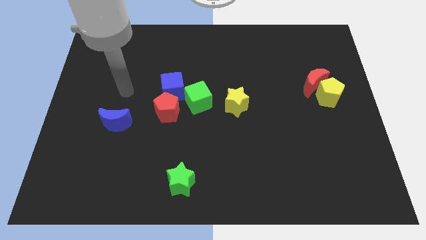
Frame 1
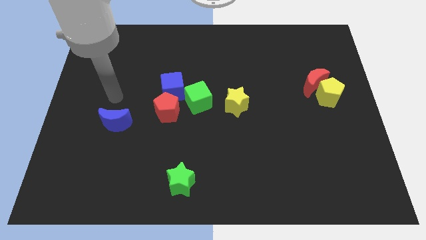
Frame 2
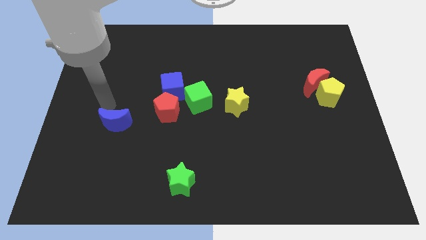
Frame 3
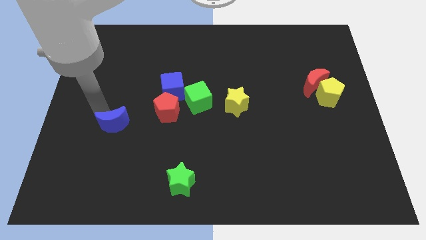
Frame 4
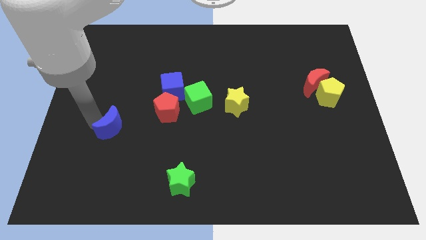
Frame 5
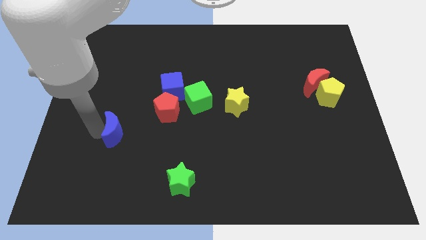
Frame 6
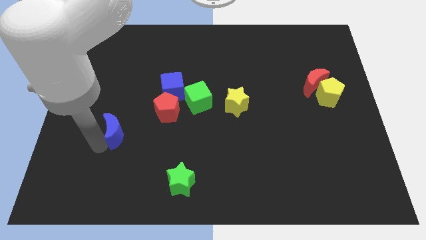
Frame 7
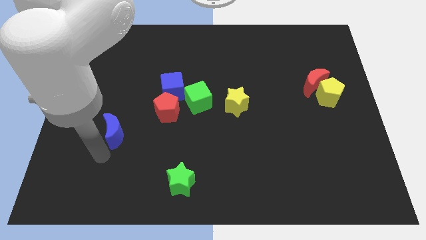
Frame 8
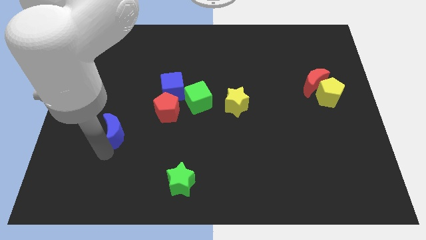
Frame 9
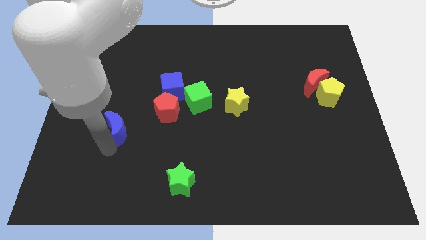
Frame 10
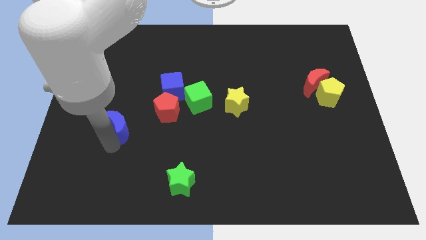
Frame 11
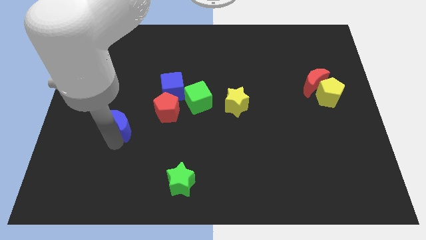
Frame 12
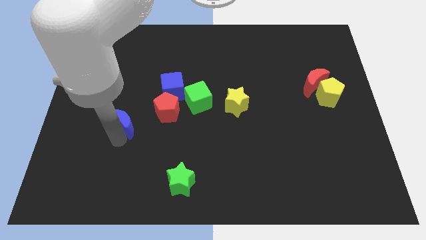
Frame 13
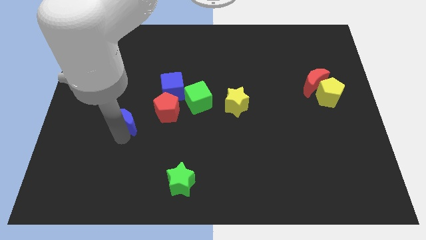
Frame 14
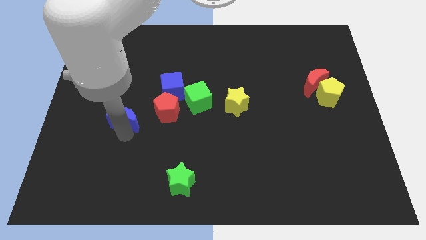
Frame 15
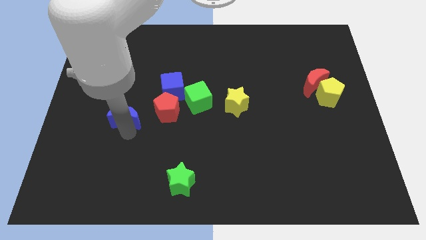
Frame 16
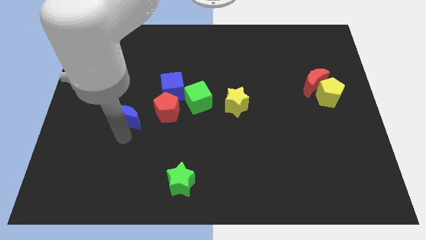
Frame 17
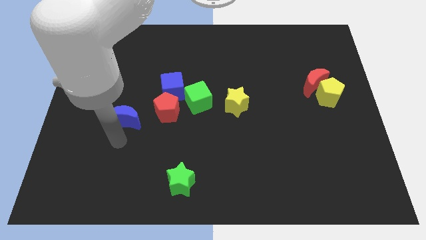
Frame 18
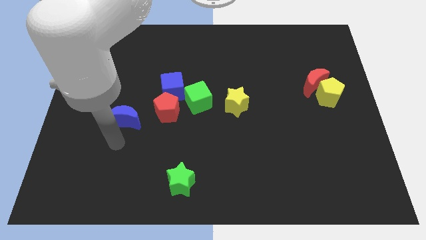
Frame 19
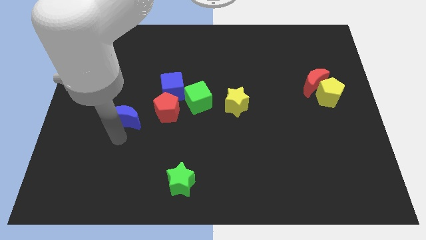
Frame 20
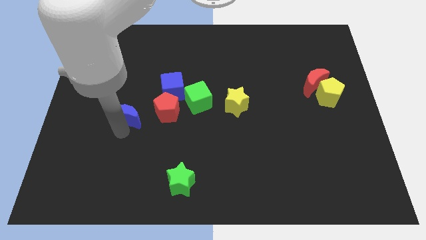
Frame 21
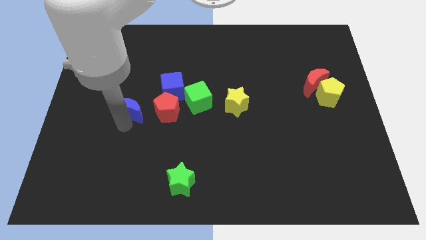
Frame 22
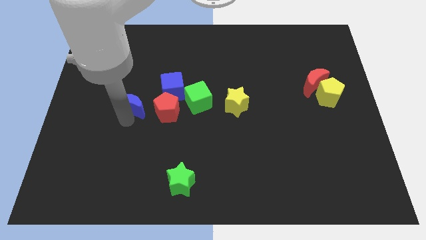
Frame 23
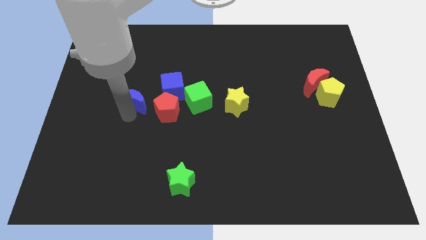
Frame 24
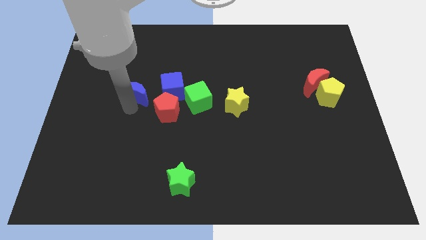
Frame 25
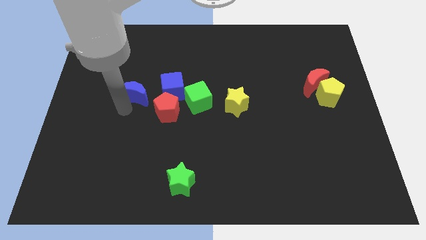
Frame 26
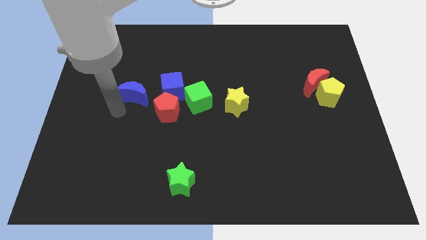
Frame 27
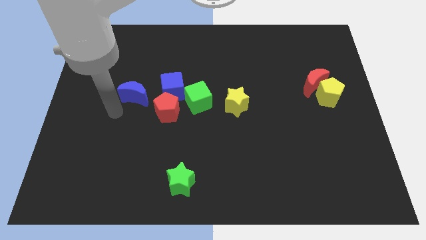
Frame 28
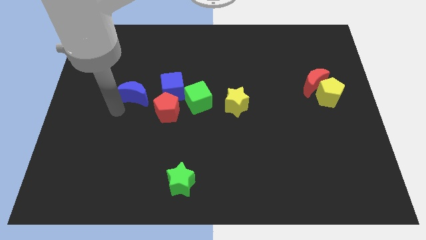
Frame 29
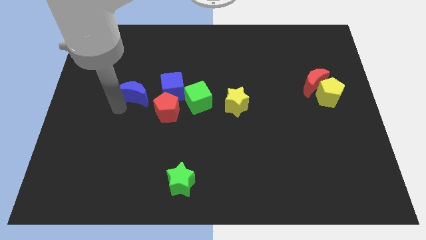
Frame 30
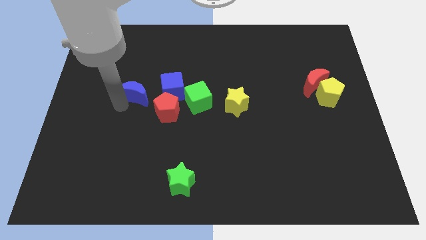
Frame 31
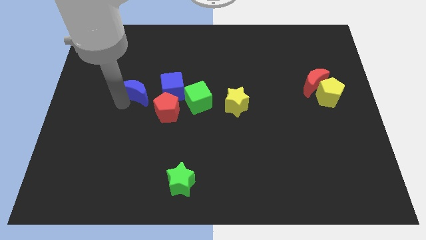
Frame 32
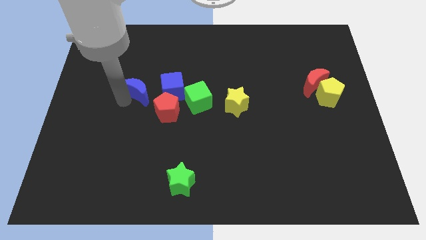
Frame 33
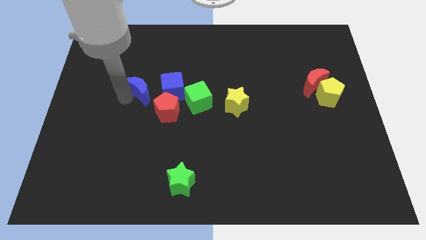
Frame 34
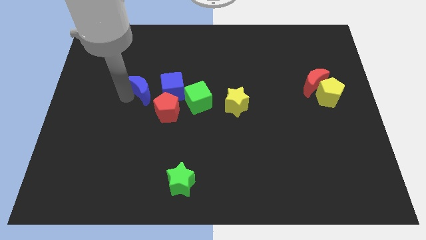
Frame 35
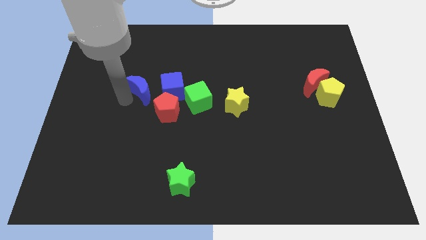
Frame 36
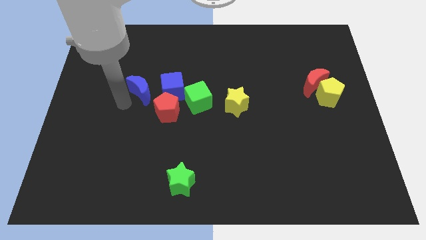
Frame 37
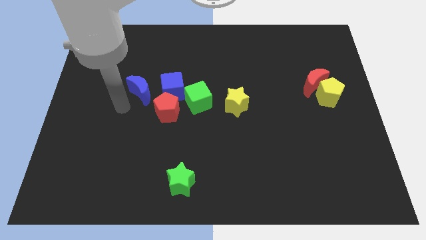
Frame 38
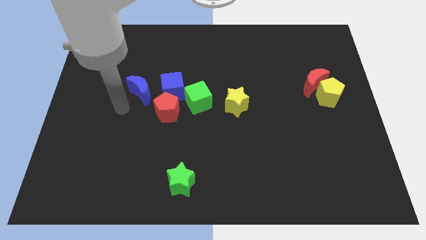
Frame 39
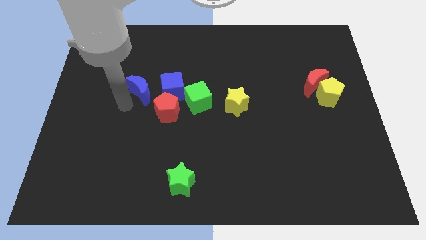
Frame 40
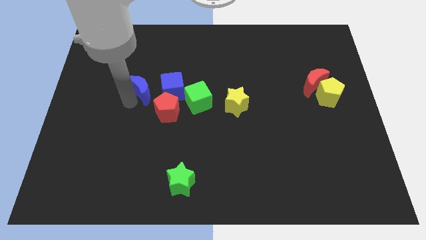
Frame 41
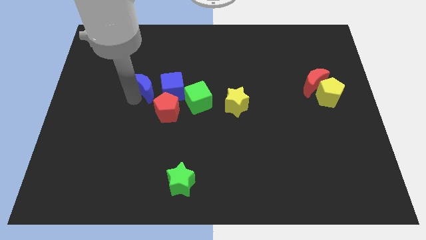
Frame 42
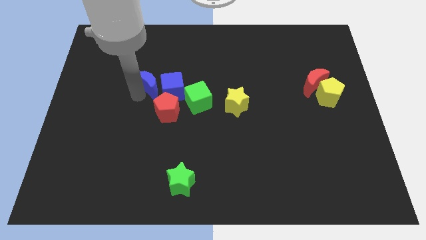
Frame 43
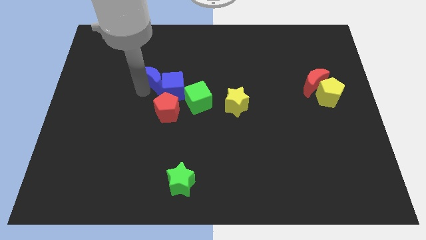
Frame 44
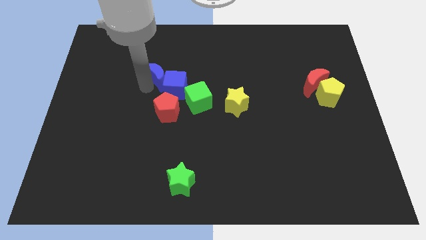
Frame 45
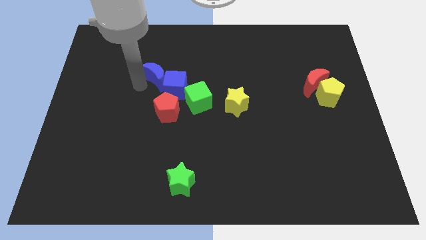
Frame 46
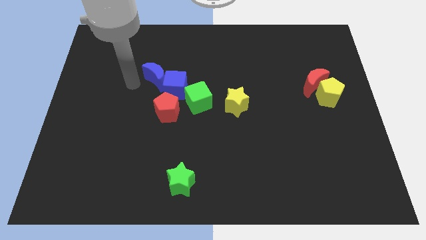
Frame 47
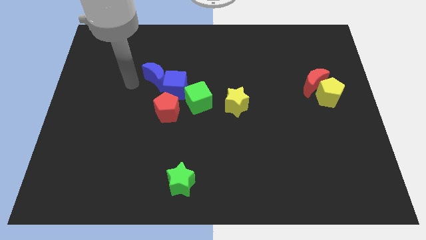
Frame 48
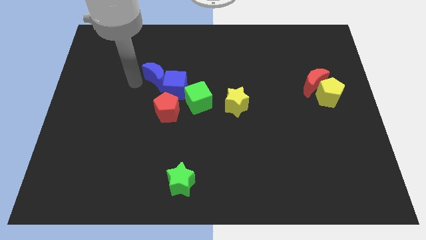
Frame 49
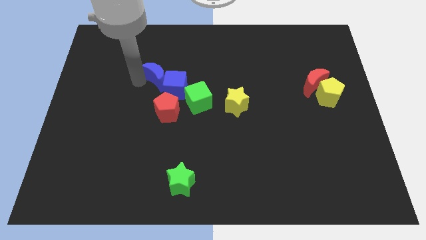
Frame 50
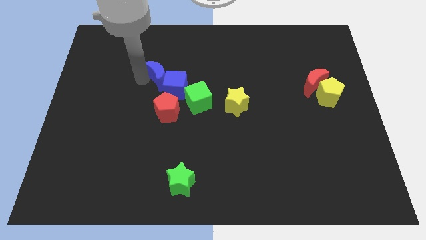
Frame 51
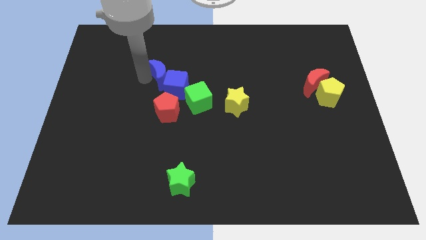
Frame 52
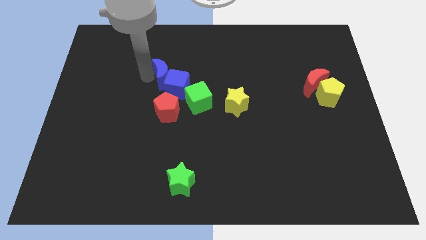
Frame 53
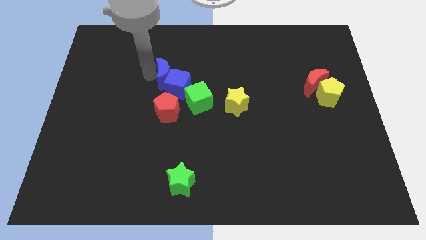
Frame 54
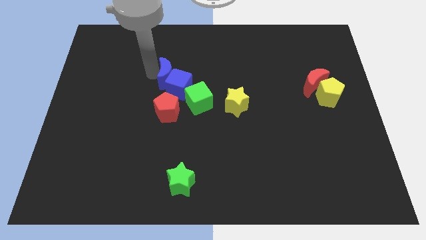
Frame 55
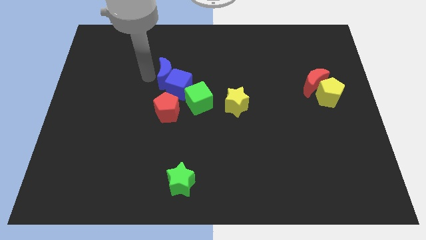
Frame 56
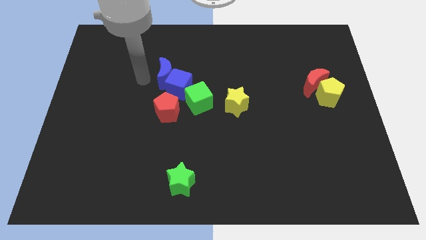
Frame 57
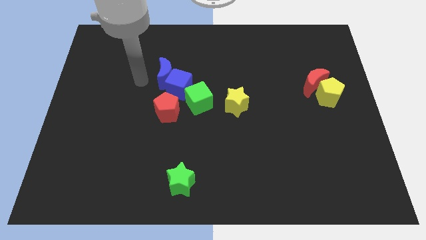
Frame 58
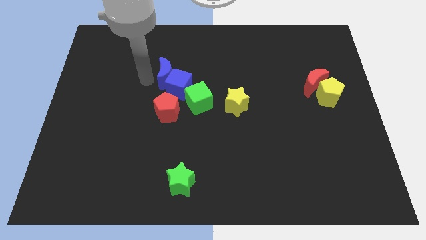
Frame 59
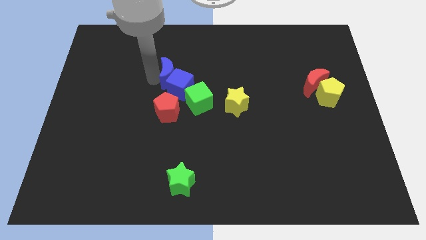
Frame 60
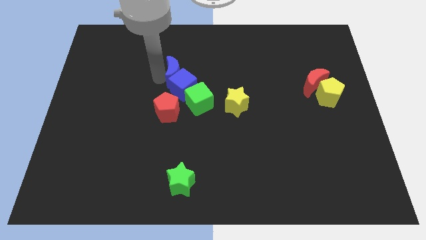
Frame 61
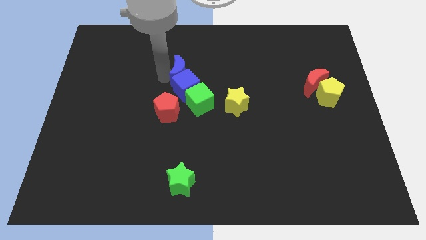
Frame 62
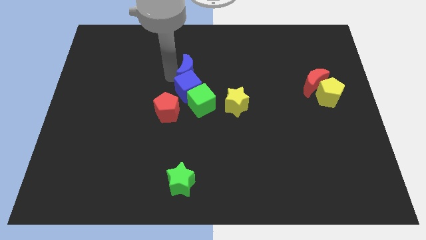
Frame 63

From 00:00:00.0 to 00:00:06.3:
move the blue moon above the green cube

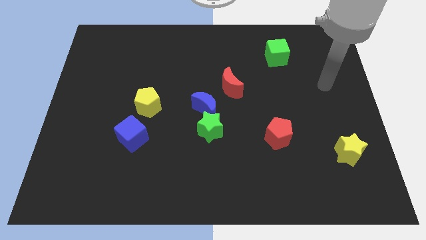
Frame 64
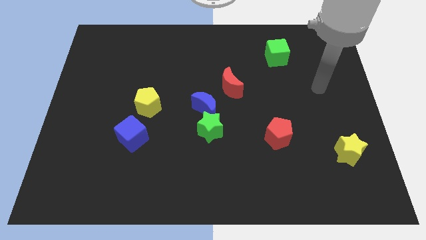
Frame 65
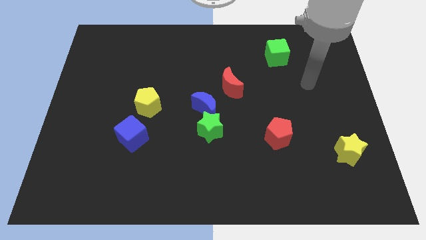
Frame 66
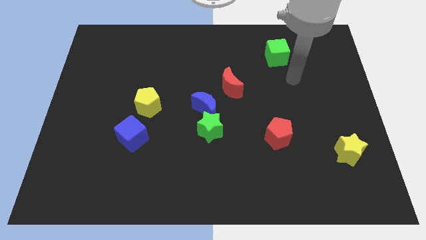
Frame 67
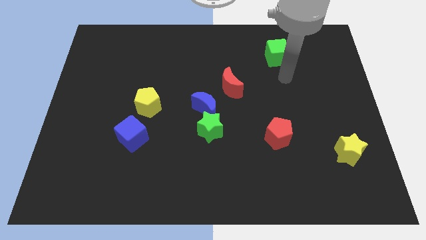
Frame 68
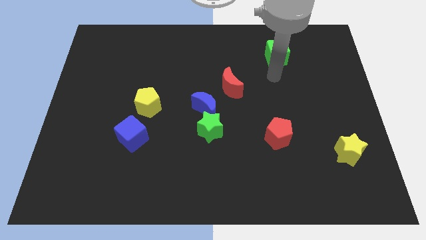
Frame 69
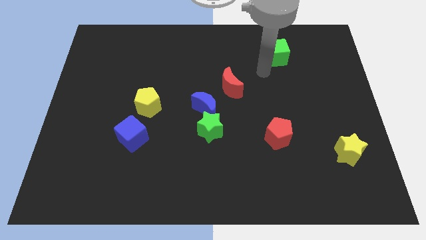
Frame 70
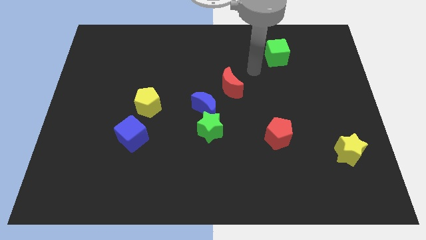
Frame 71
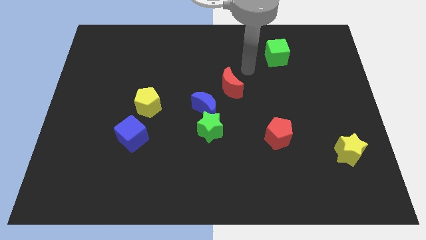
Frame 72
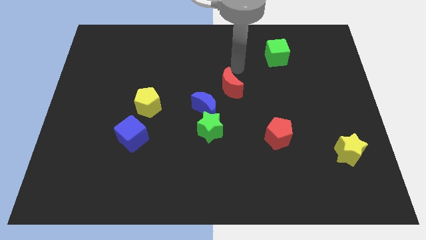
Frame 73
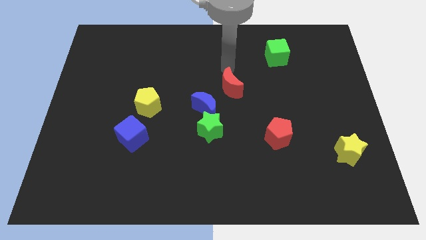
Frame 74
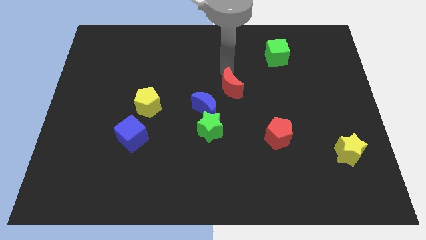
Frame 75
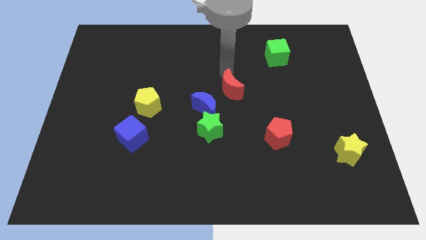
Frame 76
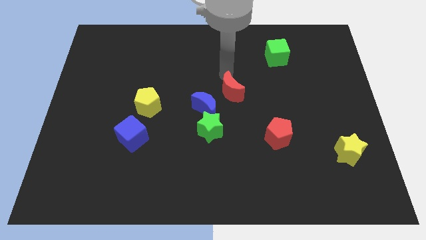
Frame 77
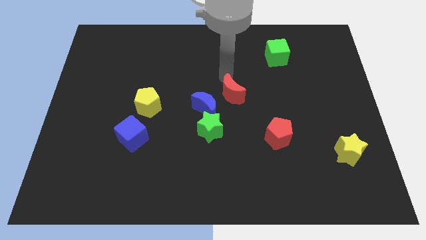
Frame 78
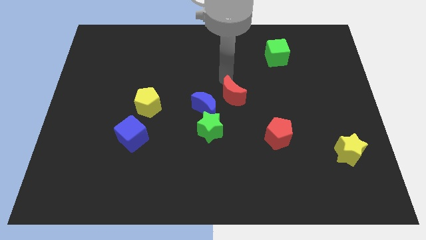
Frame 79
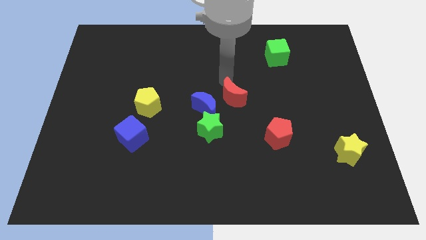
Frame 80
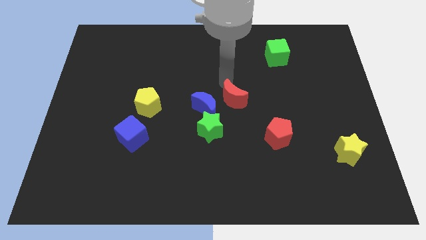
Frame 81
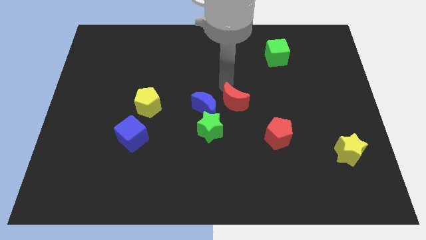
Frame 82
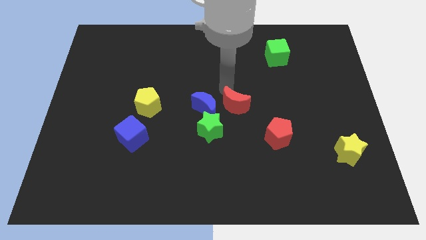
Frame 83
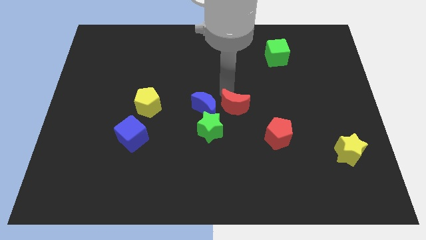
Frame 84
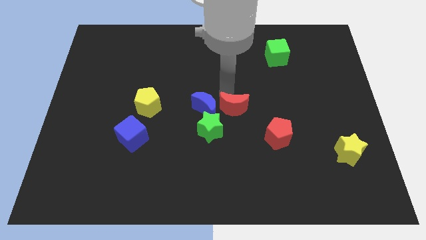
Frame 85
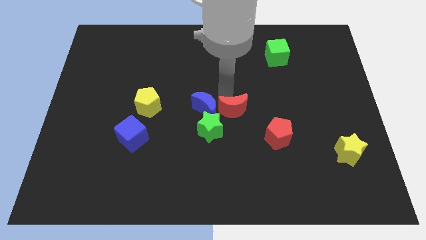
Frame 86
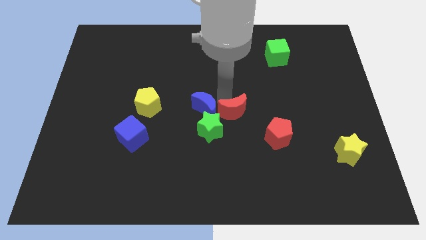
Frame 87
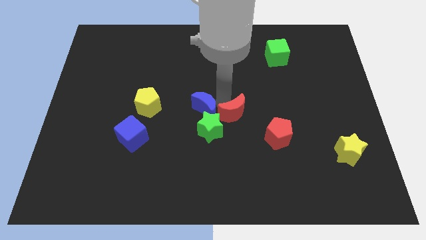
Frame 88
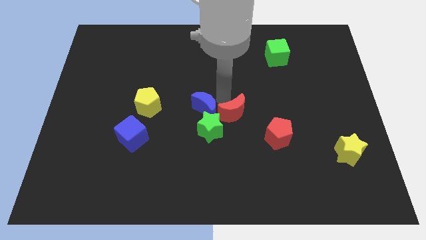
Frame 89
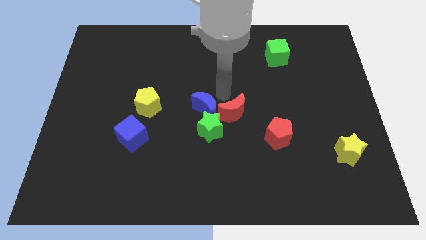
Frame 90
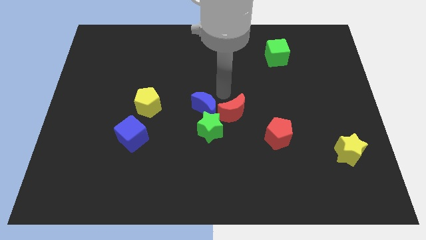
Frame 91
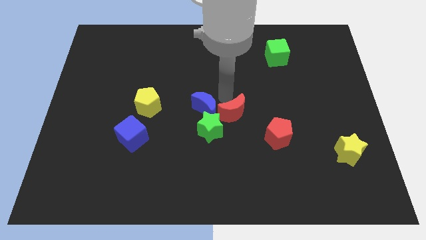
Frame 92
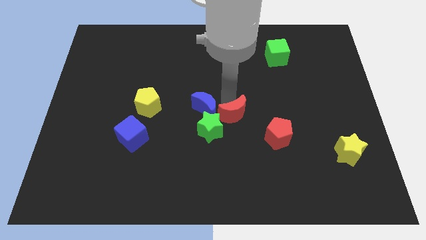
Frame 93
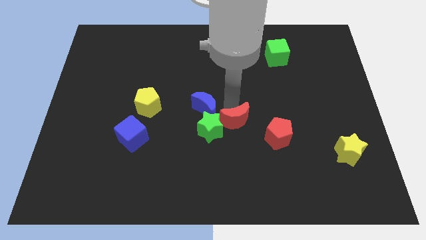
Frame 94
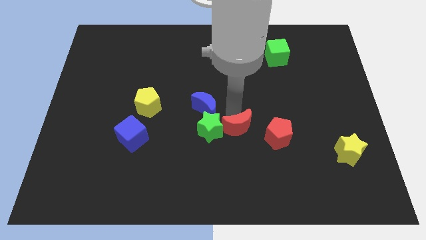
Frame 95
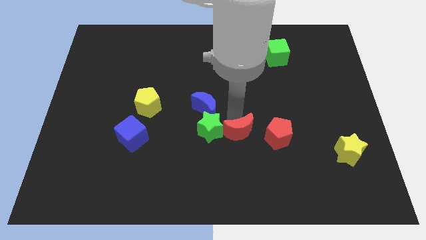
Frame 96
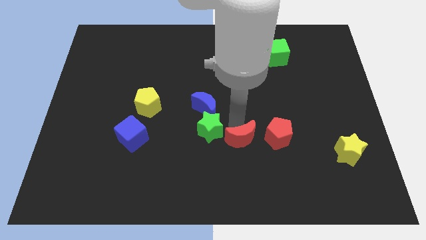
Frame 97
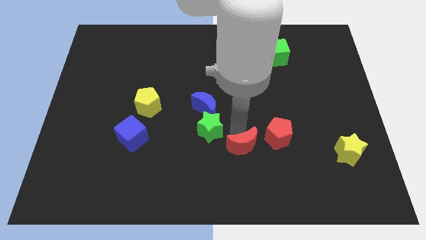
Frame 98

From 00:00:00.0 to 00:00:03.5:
push the red moon to the bottom left side of the red pentagon
